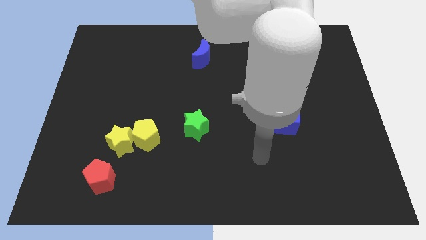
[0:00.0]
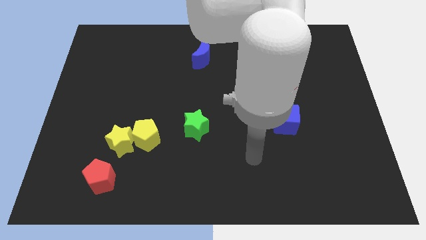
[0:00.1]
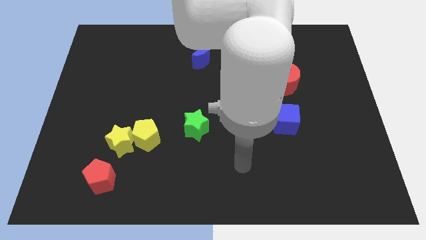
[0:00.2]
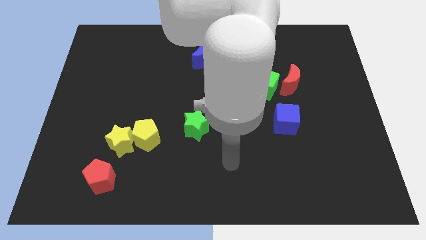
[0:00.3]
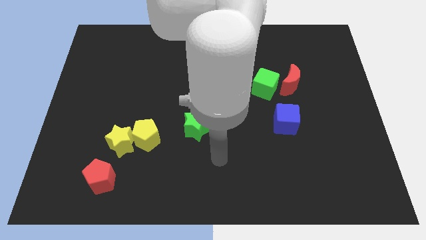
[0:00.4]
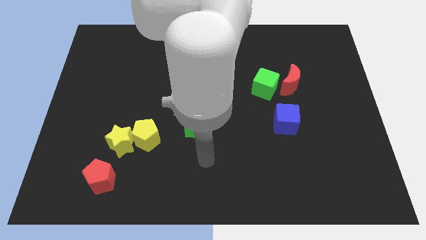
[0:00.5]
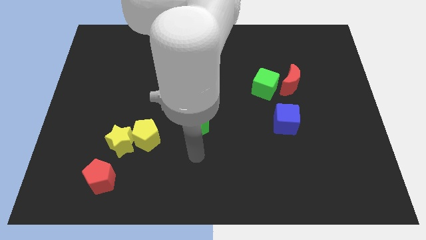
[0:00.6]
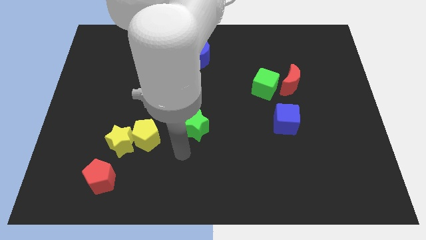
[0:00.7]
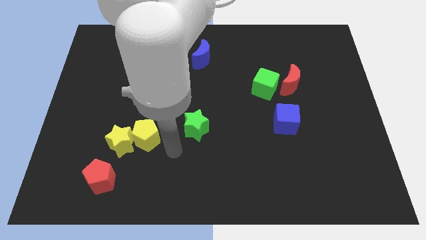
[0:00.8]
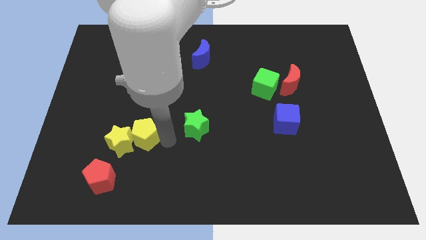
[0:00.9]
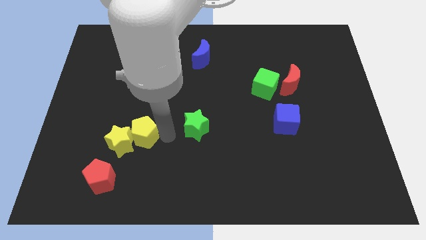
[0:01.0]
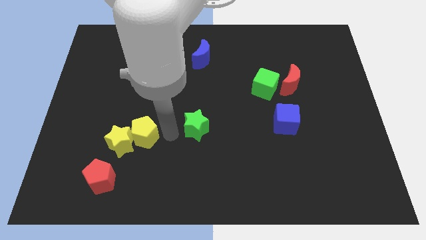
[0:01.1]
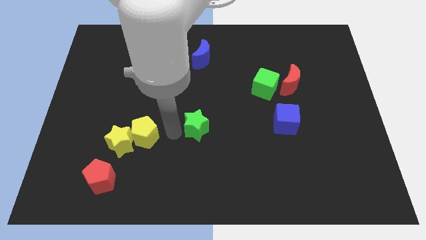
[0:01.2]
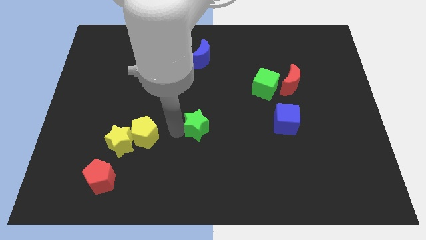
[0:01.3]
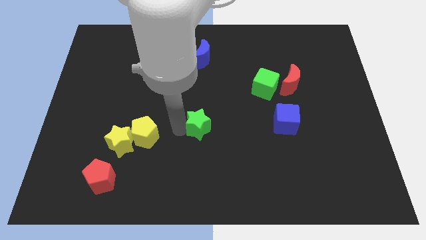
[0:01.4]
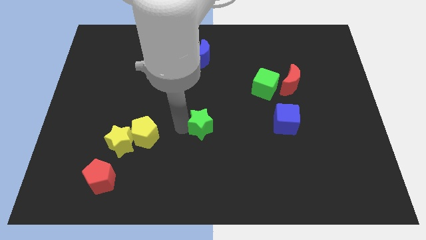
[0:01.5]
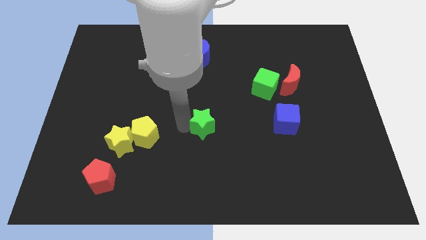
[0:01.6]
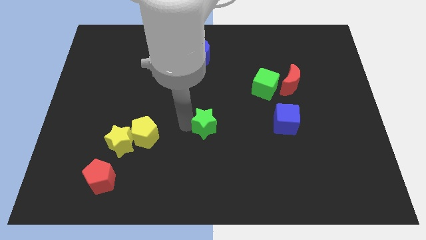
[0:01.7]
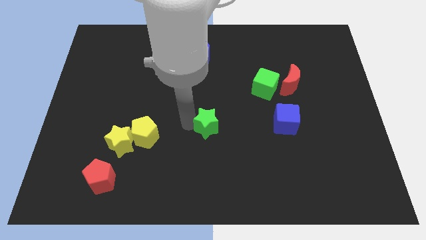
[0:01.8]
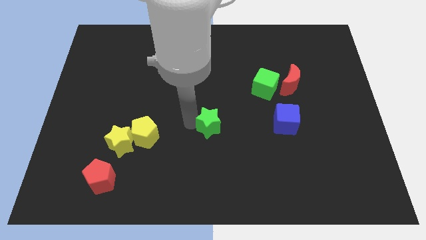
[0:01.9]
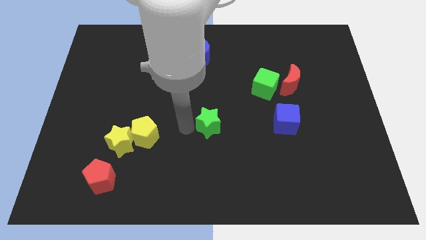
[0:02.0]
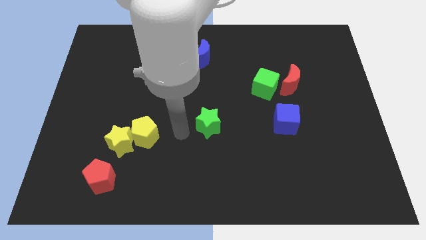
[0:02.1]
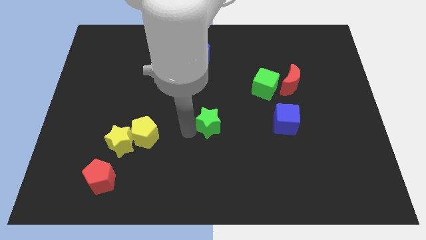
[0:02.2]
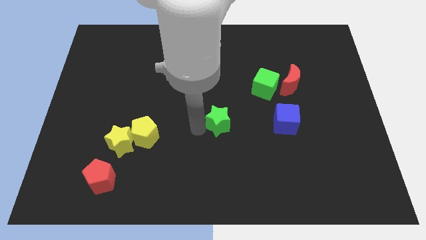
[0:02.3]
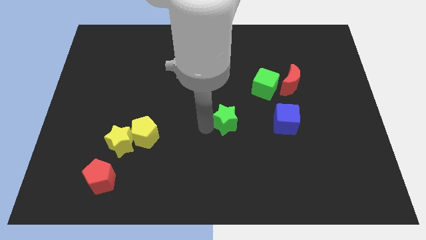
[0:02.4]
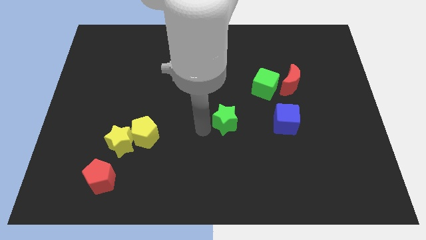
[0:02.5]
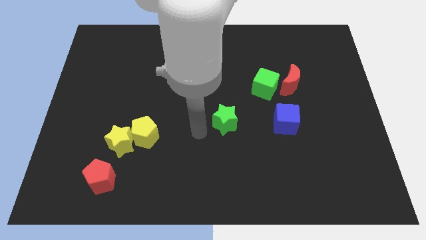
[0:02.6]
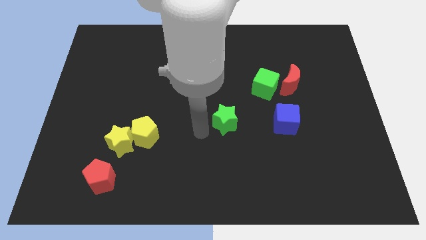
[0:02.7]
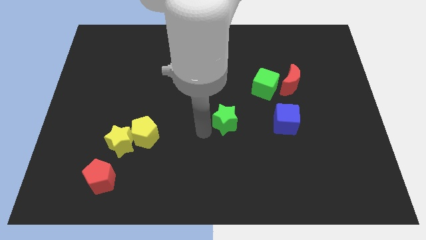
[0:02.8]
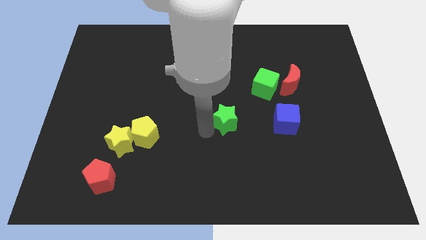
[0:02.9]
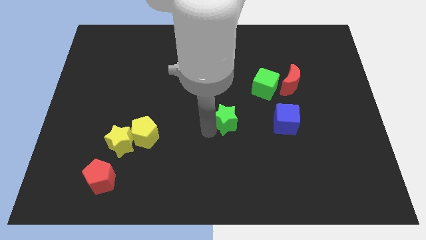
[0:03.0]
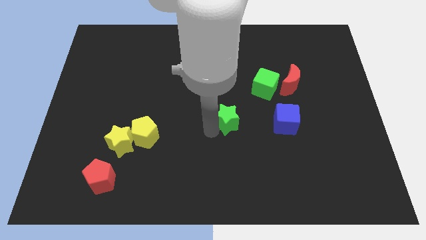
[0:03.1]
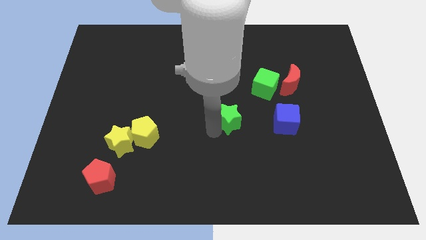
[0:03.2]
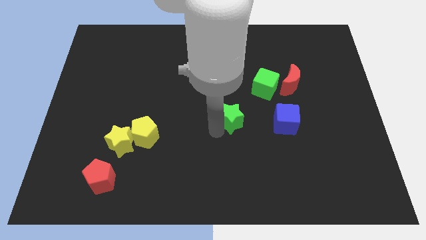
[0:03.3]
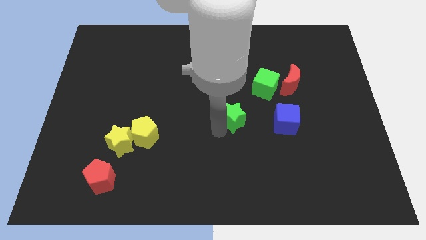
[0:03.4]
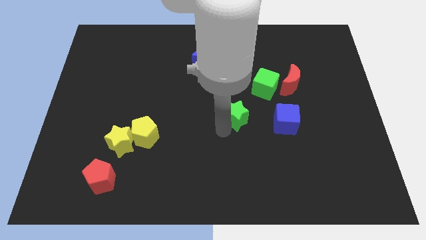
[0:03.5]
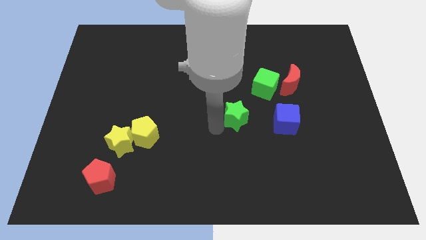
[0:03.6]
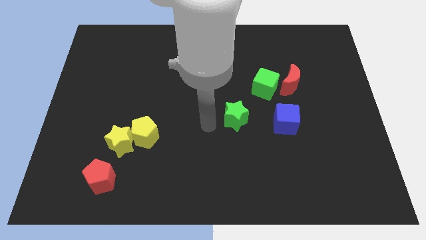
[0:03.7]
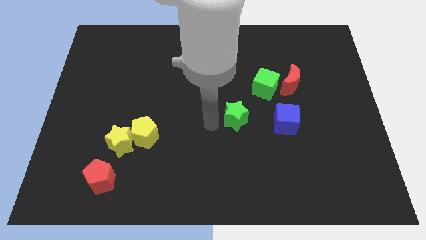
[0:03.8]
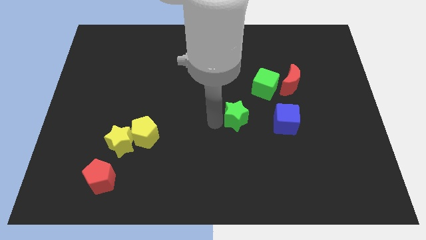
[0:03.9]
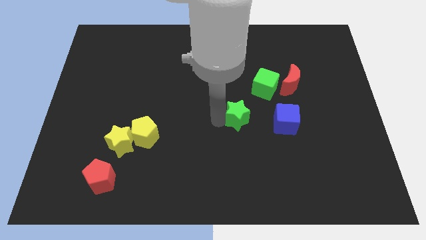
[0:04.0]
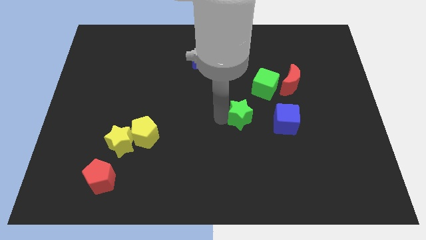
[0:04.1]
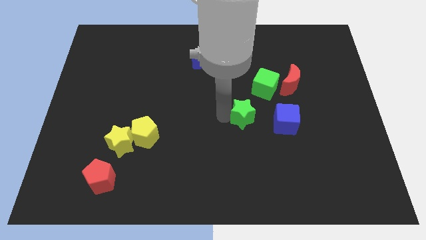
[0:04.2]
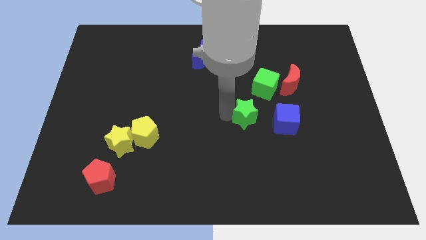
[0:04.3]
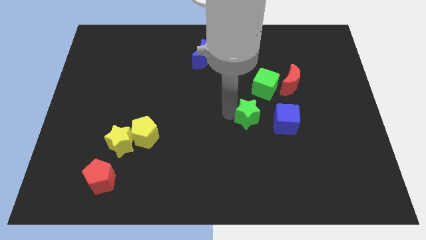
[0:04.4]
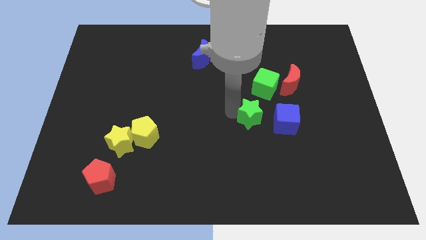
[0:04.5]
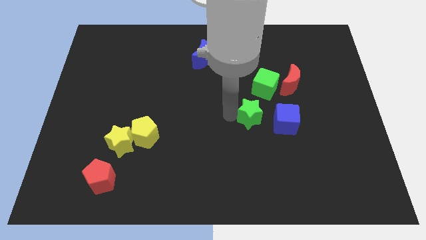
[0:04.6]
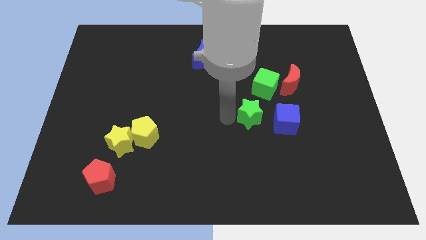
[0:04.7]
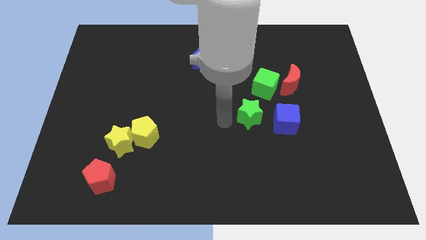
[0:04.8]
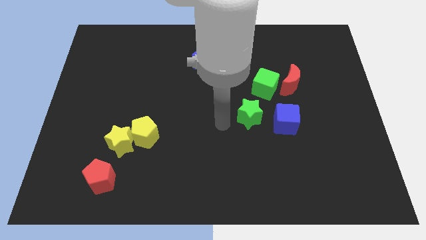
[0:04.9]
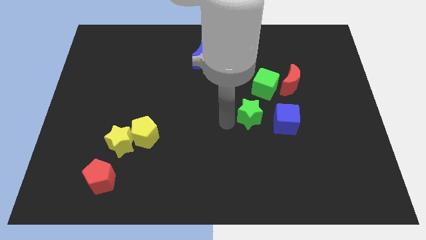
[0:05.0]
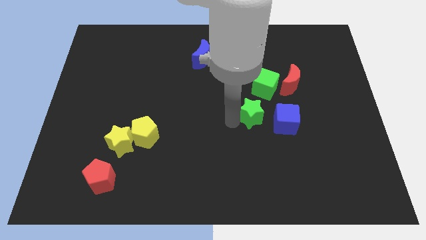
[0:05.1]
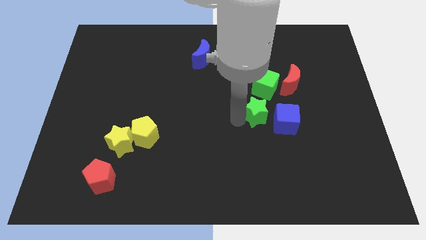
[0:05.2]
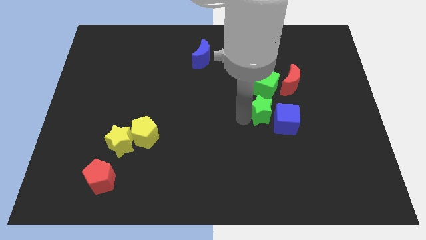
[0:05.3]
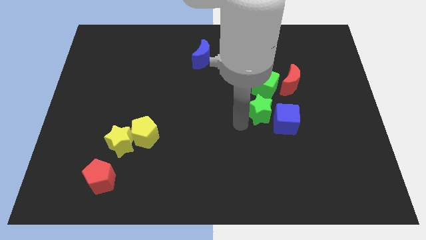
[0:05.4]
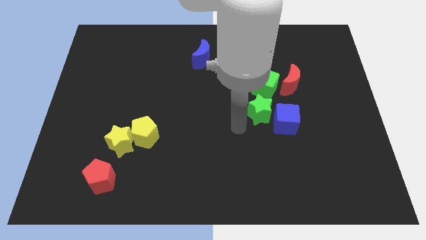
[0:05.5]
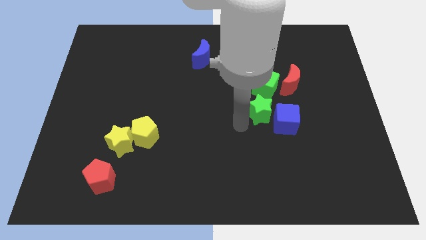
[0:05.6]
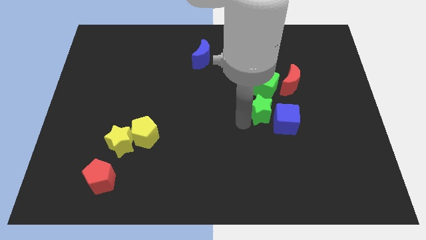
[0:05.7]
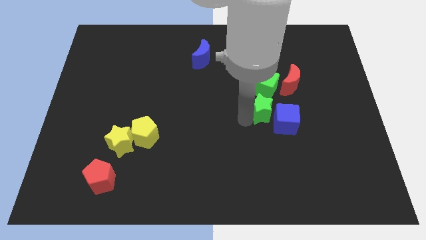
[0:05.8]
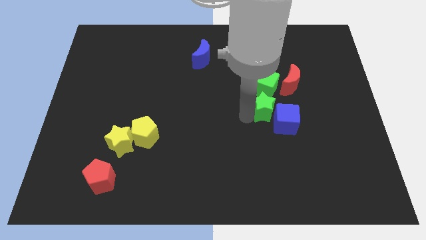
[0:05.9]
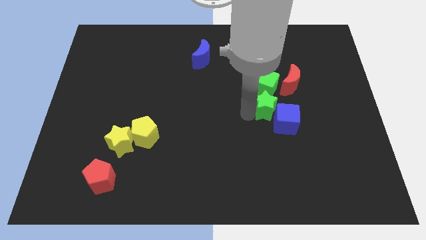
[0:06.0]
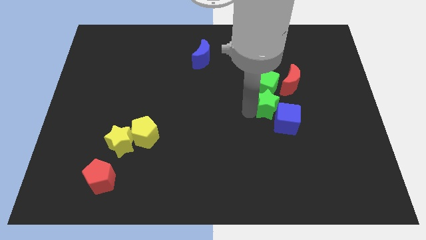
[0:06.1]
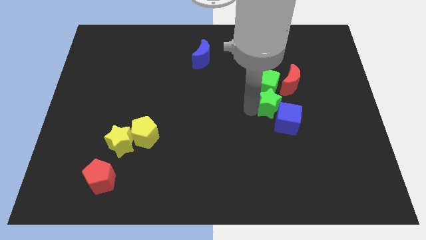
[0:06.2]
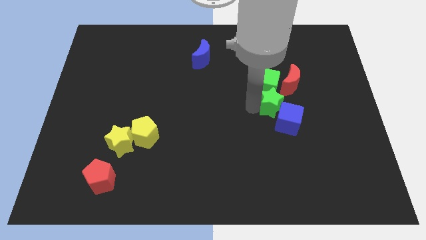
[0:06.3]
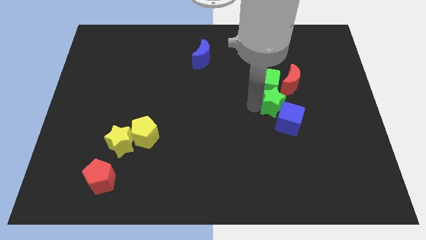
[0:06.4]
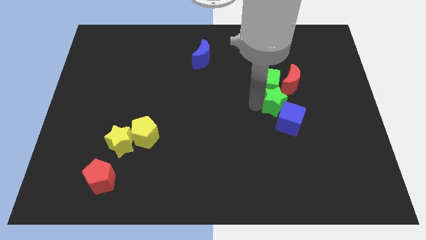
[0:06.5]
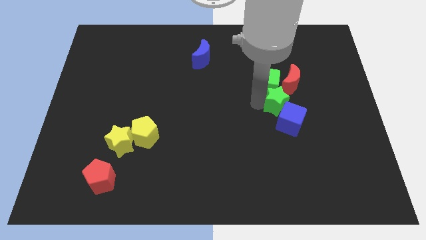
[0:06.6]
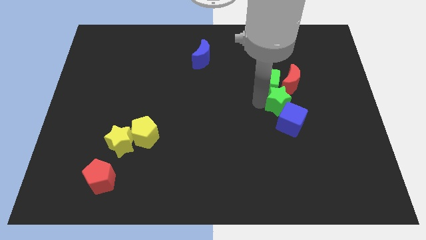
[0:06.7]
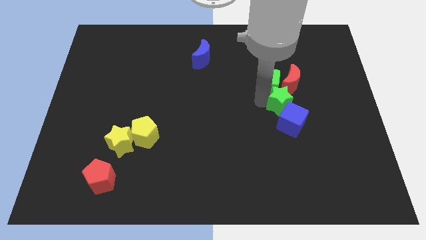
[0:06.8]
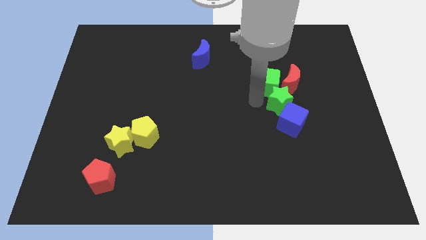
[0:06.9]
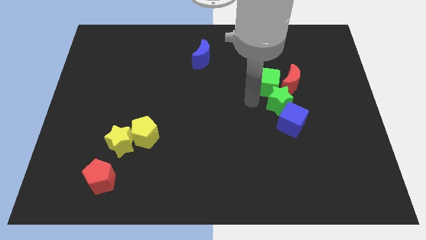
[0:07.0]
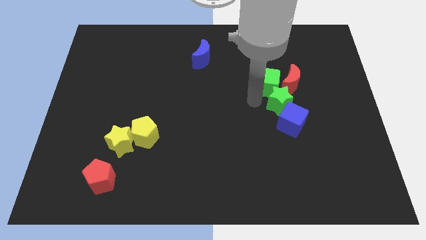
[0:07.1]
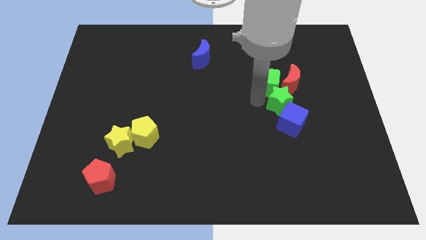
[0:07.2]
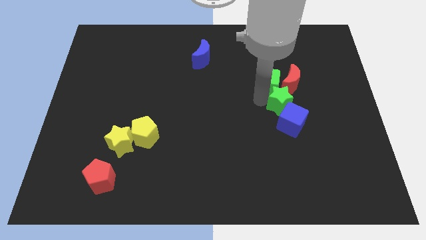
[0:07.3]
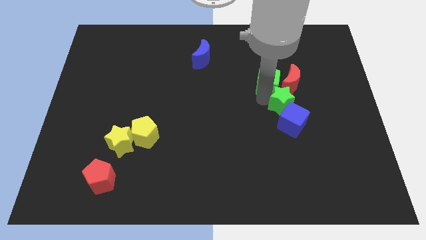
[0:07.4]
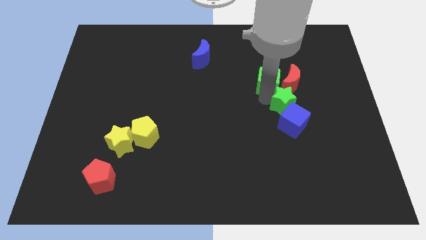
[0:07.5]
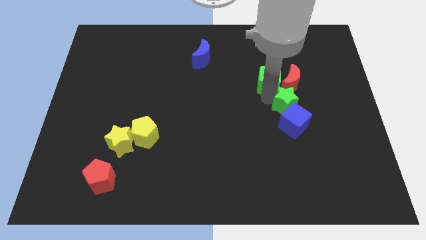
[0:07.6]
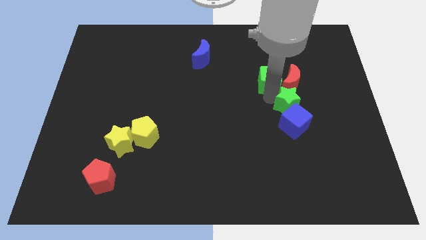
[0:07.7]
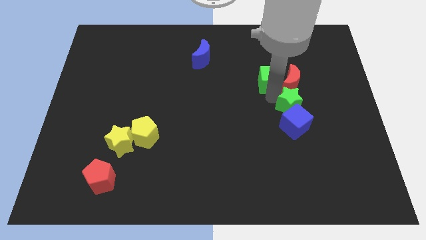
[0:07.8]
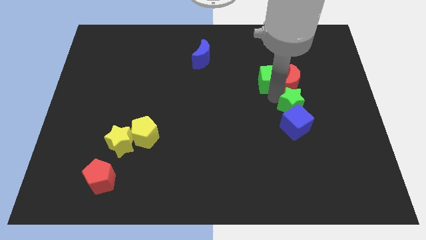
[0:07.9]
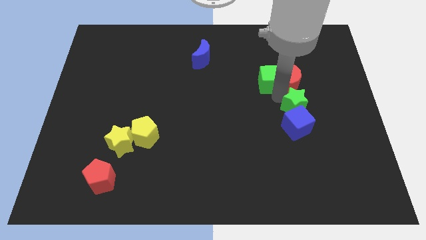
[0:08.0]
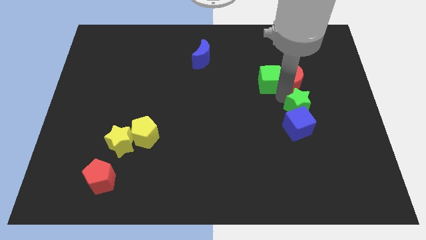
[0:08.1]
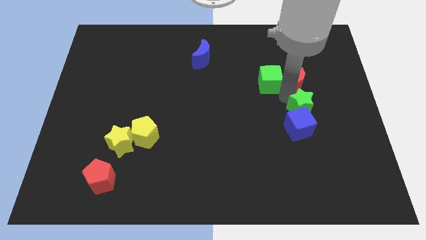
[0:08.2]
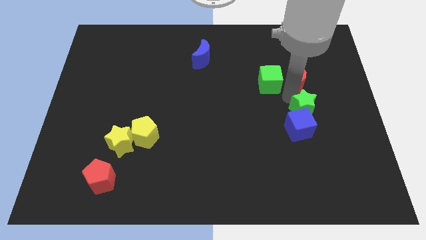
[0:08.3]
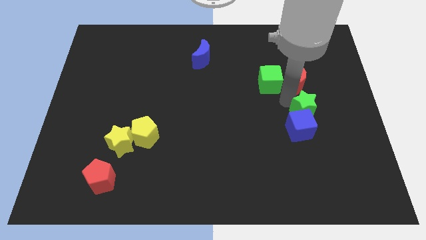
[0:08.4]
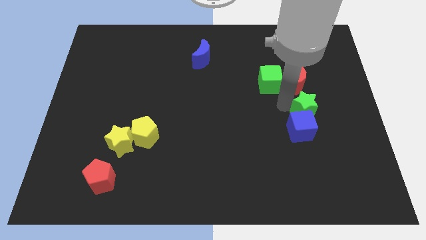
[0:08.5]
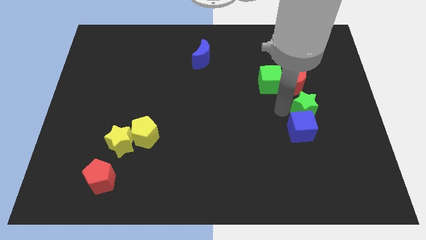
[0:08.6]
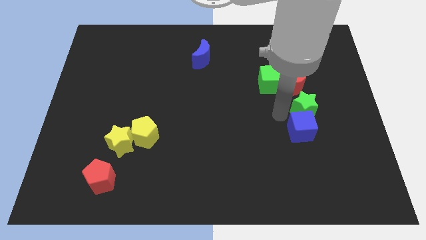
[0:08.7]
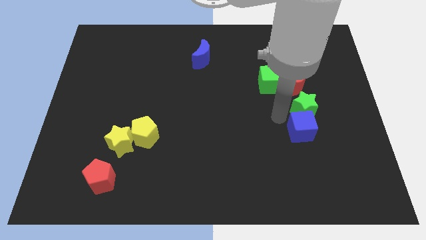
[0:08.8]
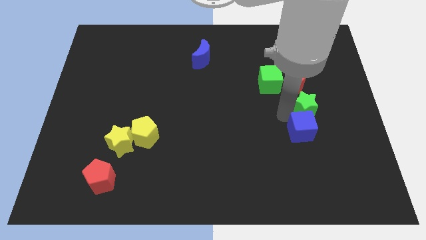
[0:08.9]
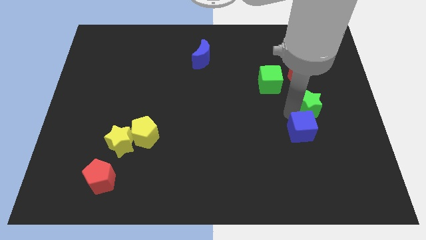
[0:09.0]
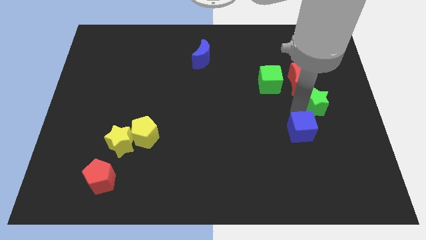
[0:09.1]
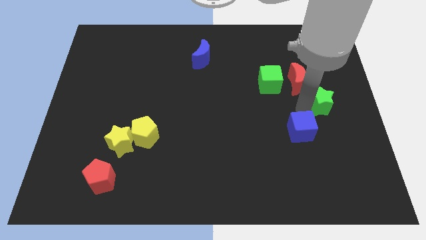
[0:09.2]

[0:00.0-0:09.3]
push the green star to the center right
